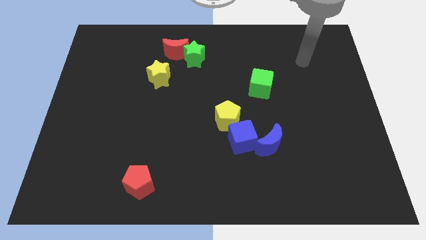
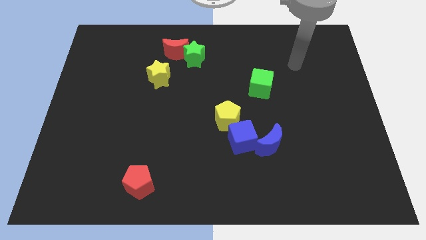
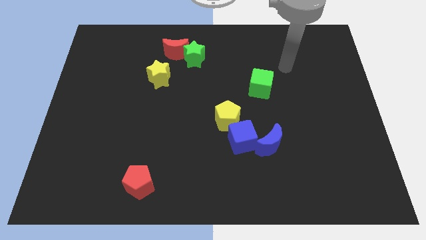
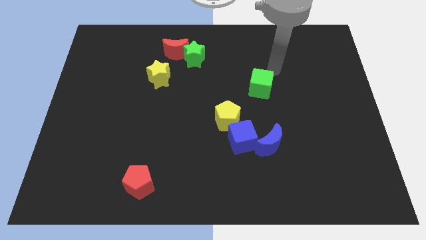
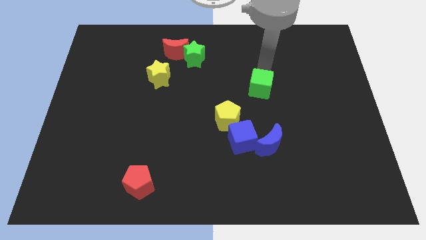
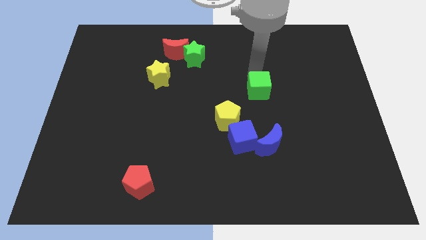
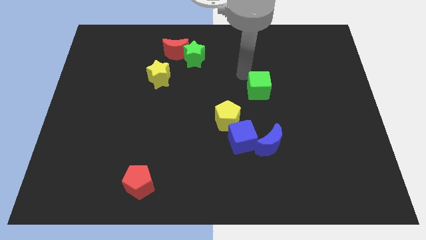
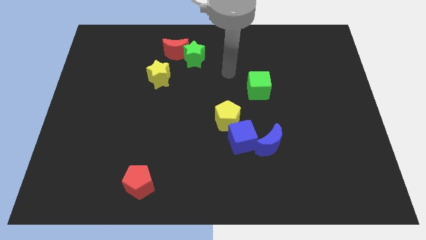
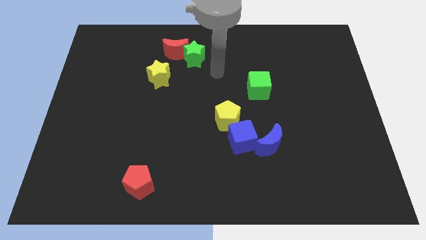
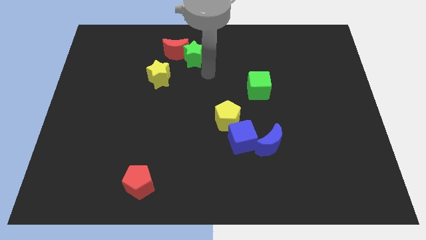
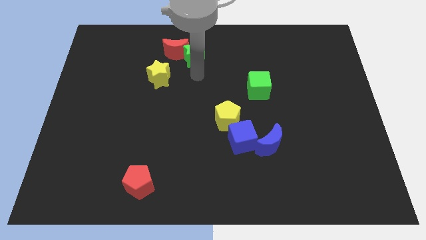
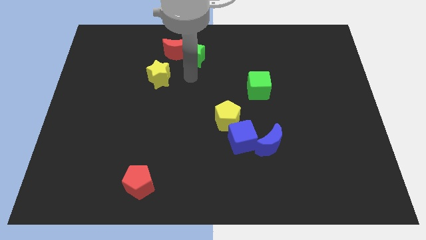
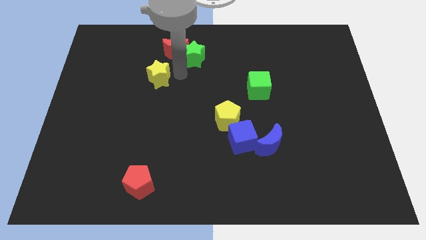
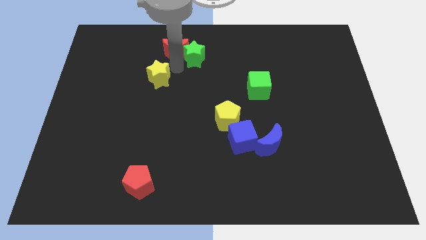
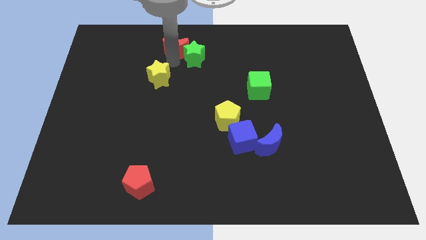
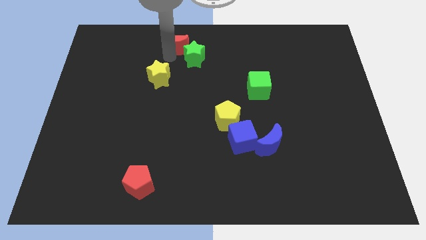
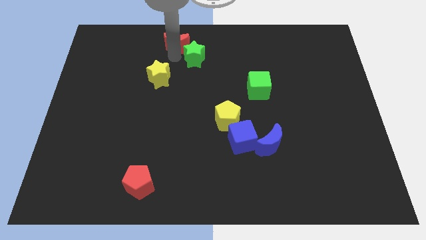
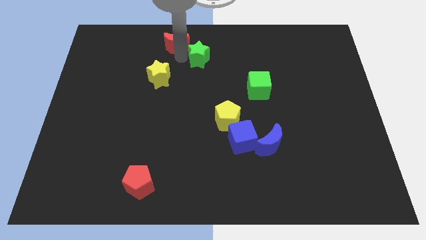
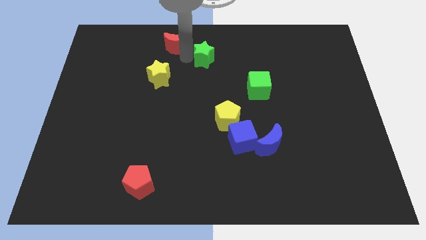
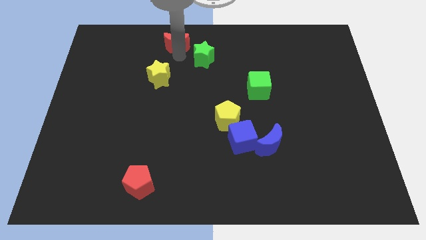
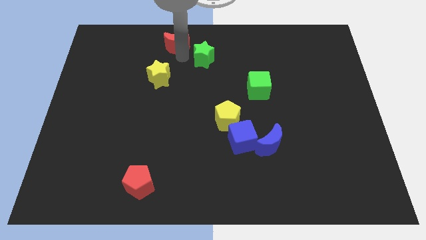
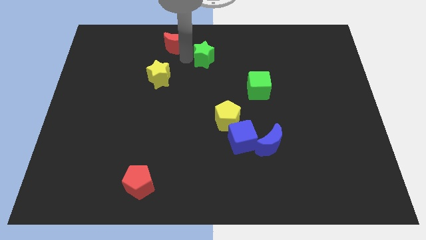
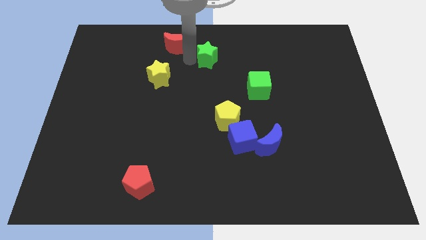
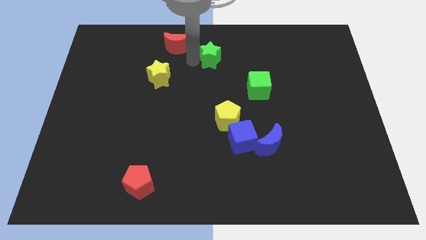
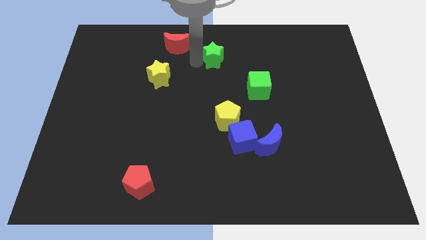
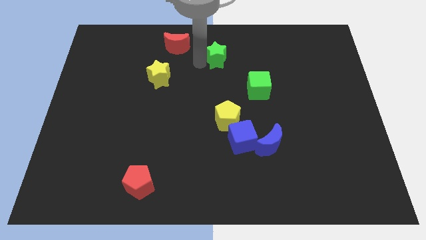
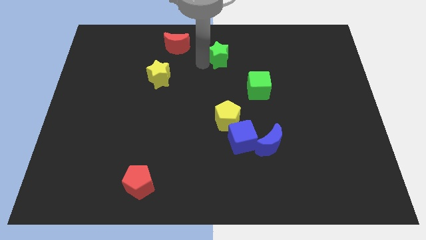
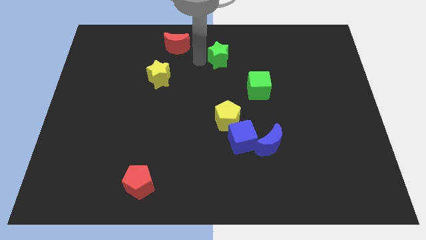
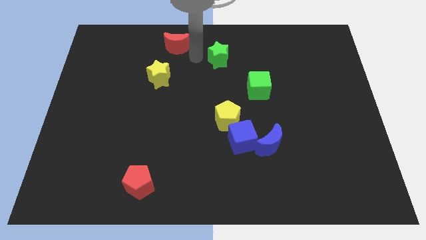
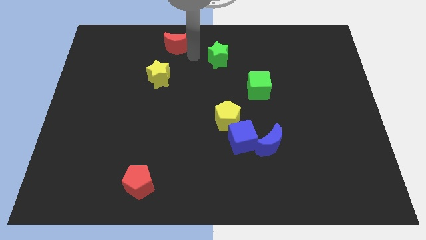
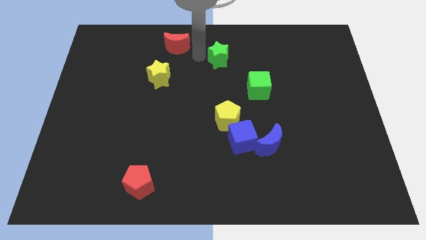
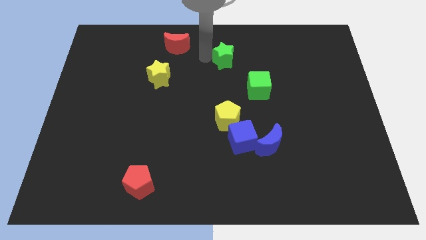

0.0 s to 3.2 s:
move the green star slightly to the right

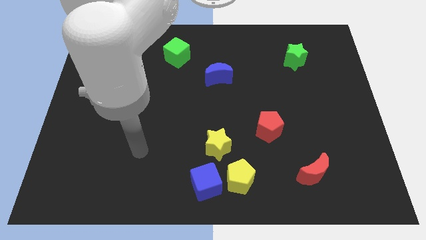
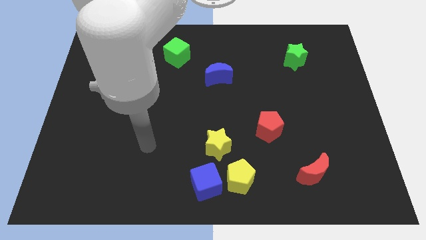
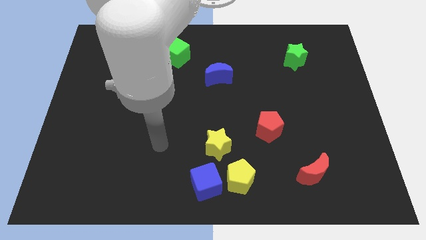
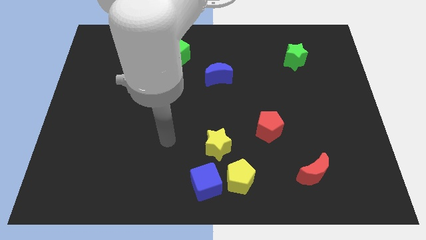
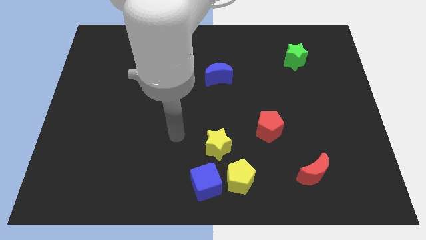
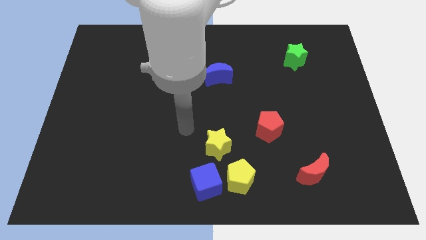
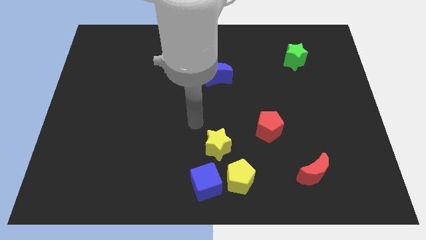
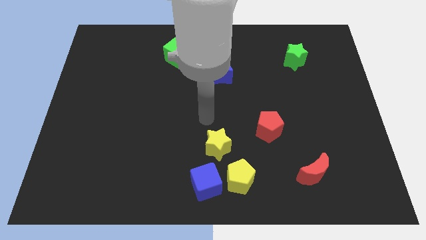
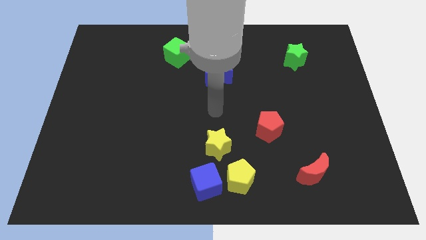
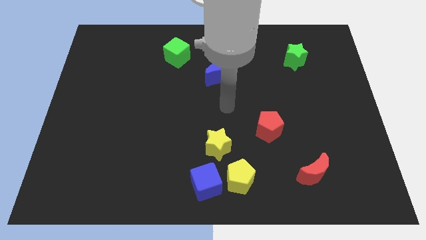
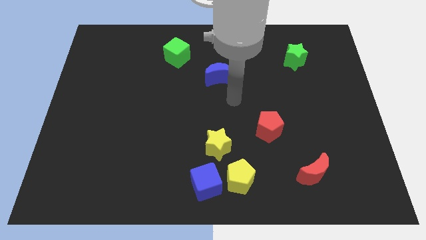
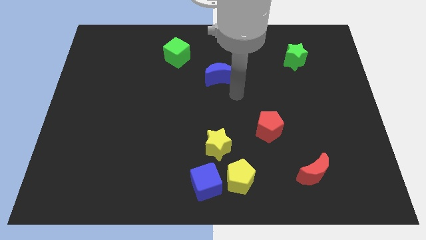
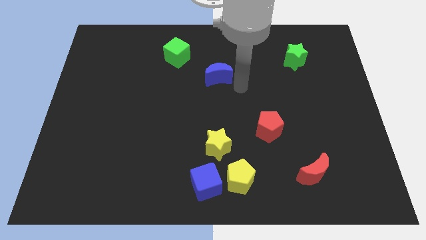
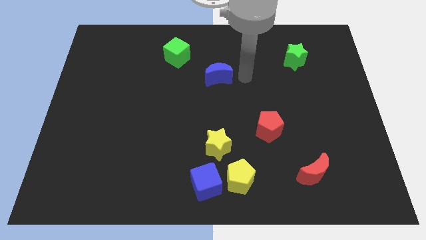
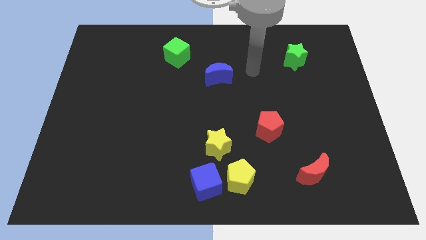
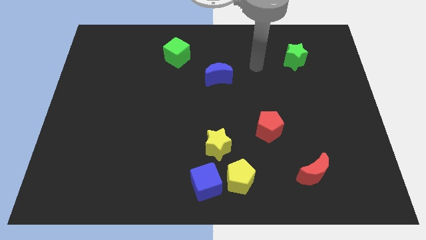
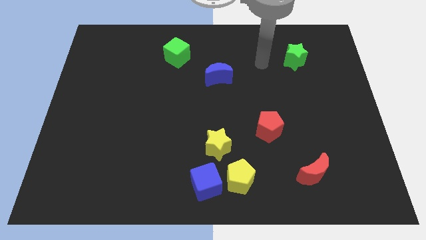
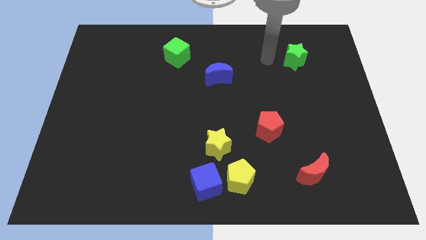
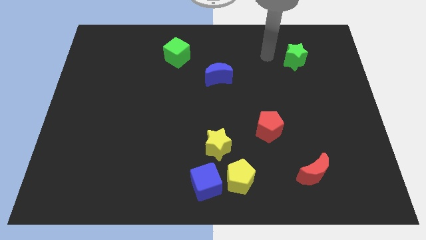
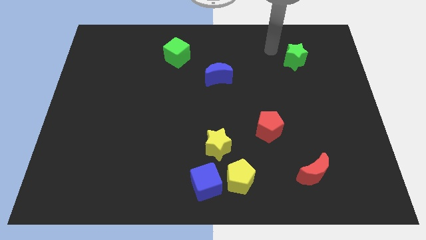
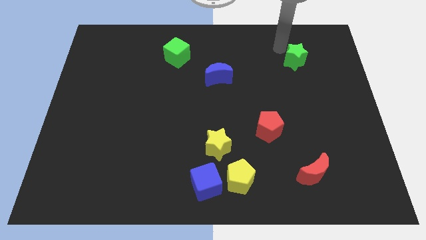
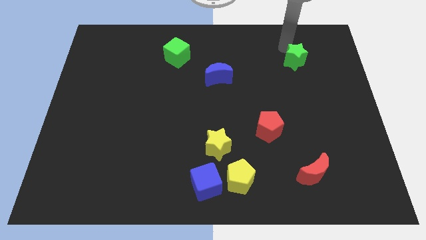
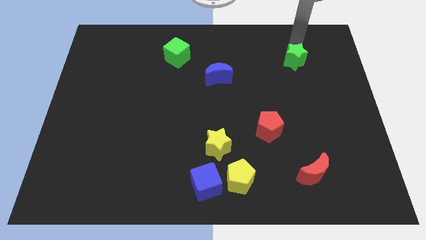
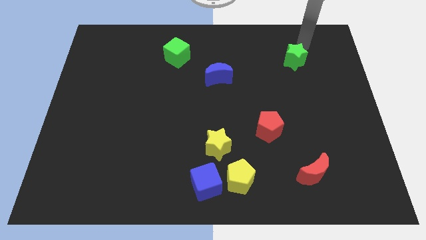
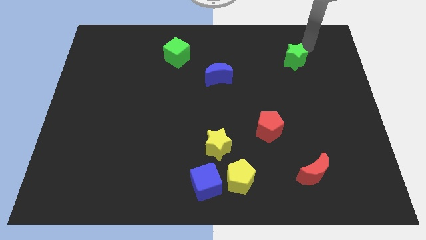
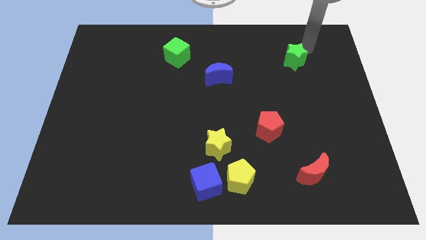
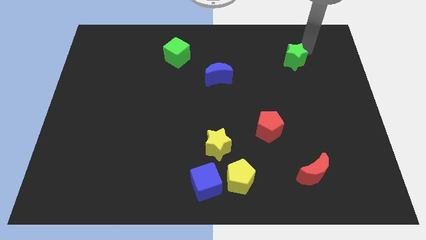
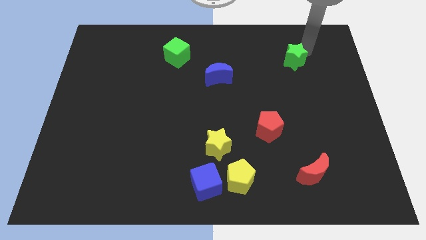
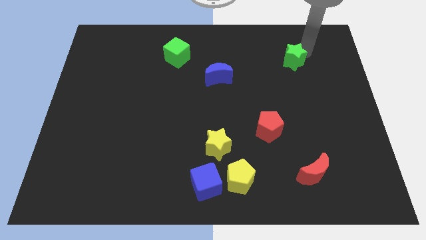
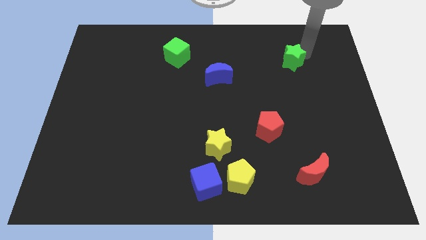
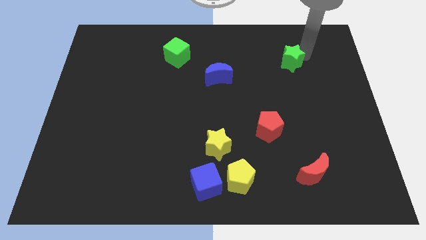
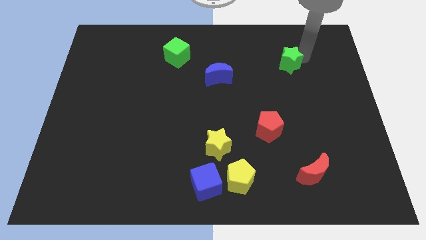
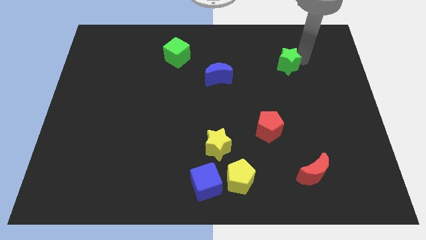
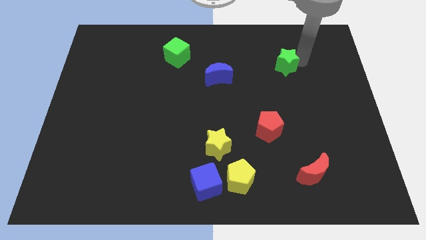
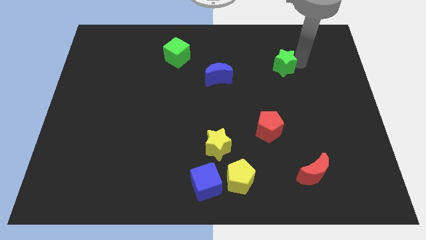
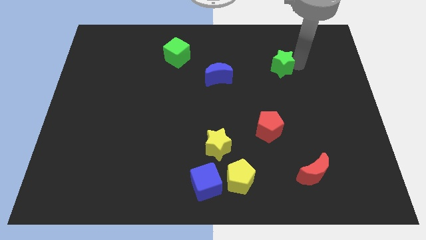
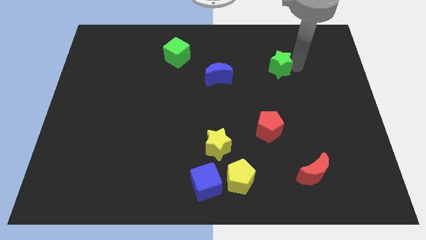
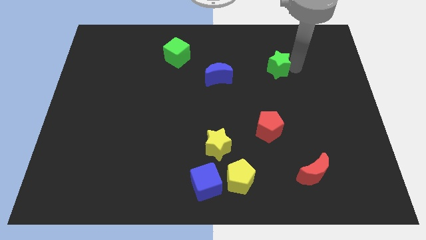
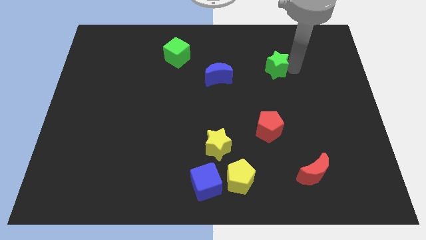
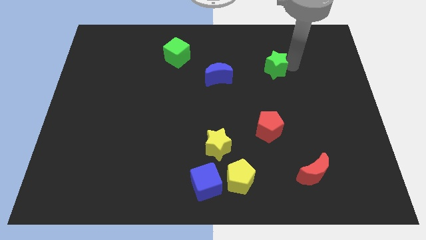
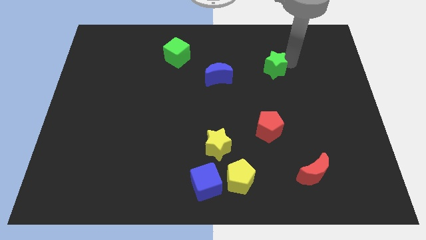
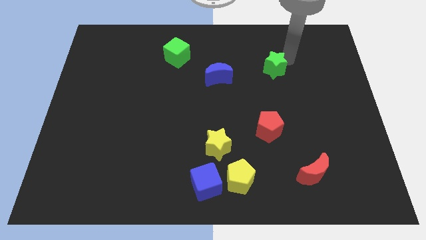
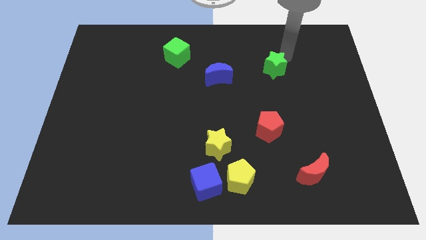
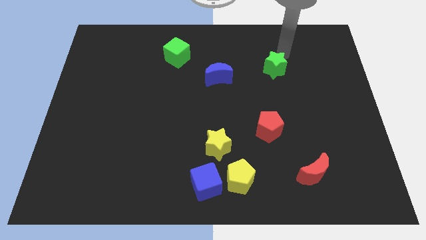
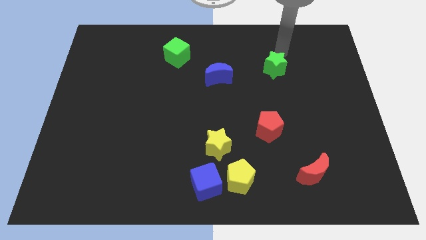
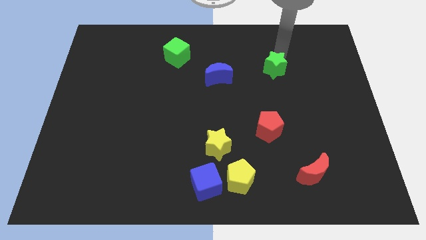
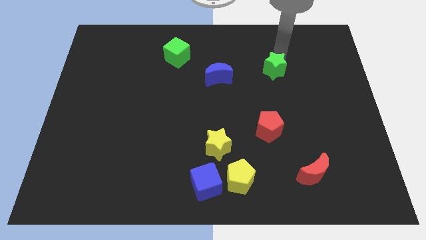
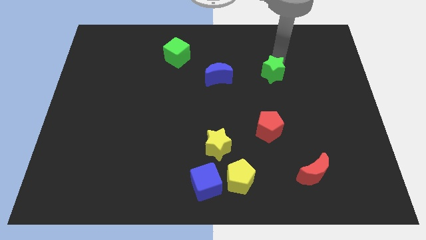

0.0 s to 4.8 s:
push the green star down and left somewhat
